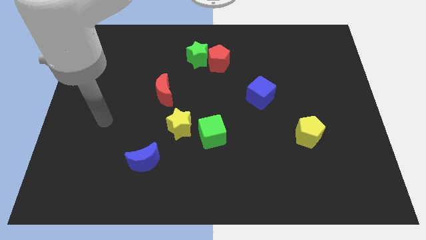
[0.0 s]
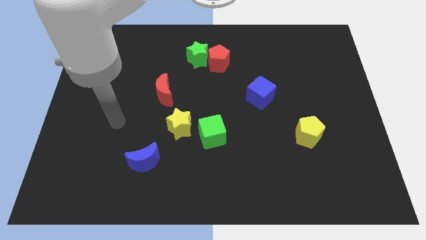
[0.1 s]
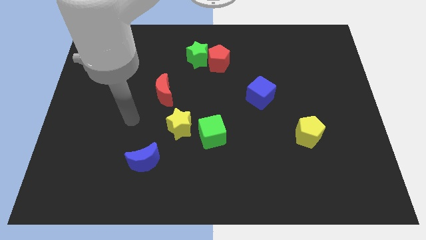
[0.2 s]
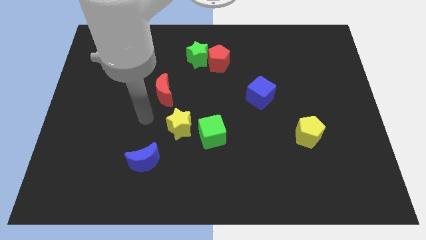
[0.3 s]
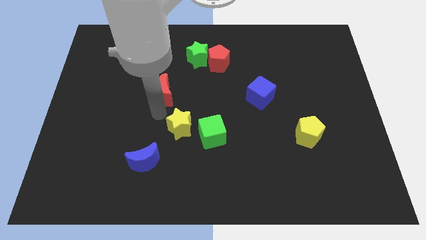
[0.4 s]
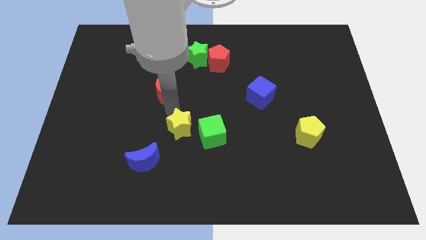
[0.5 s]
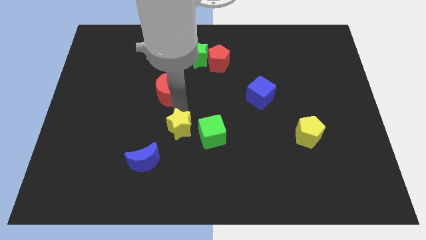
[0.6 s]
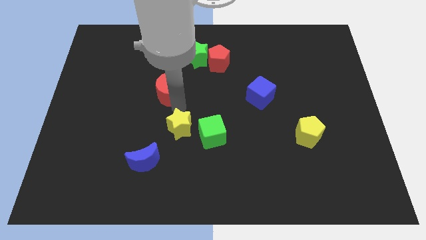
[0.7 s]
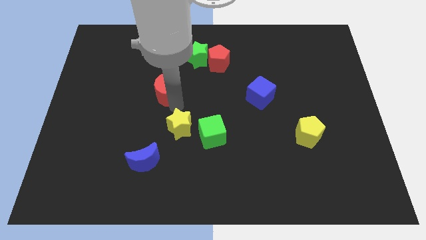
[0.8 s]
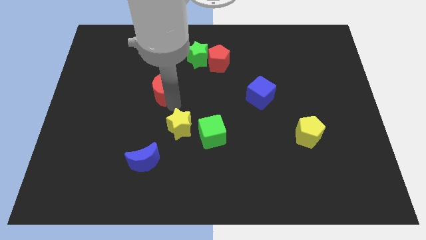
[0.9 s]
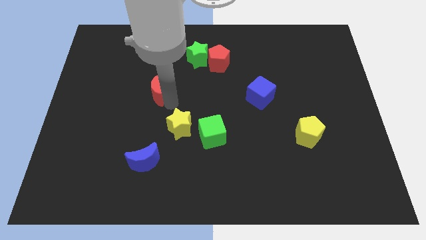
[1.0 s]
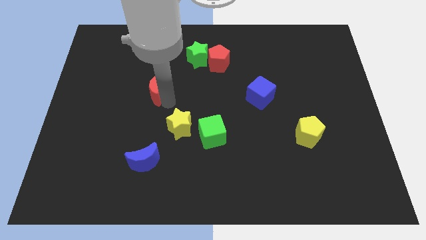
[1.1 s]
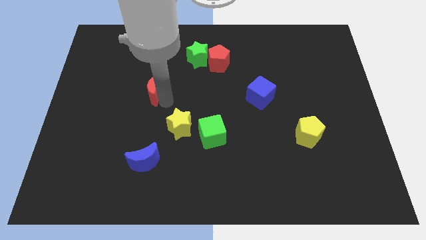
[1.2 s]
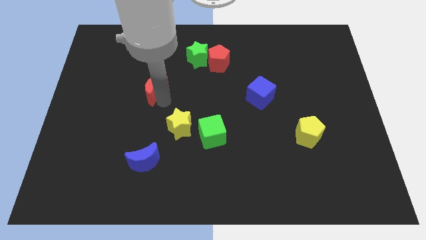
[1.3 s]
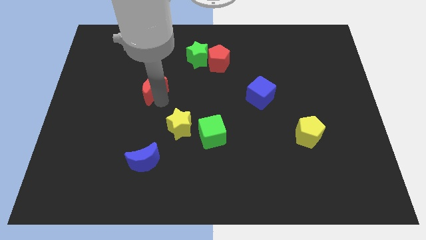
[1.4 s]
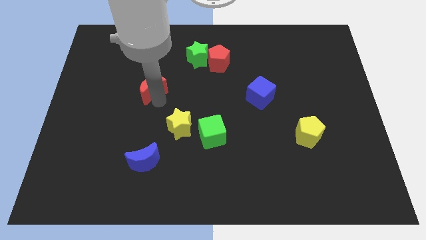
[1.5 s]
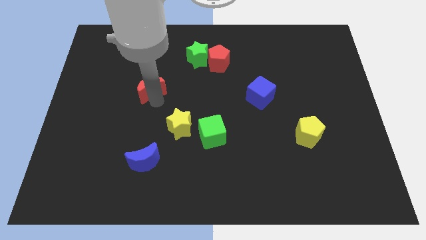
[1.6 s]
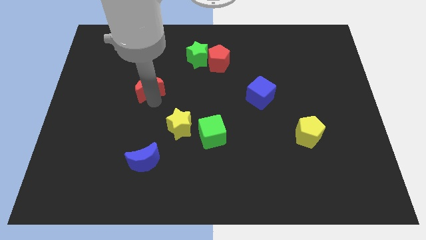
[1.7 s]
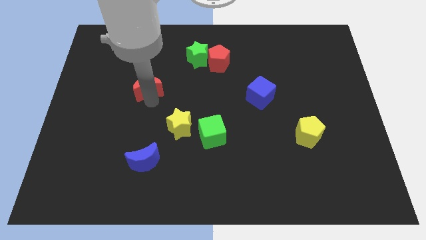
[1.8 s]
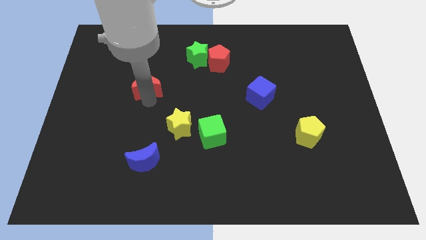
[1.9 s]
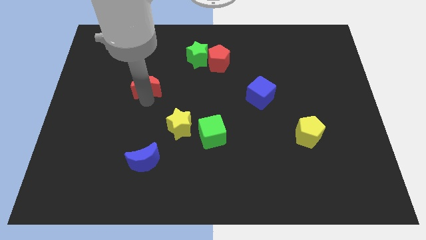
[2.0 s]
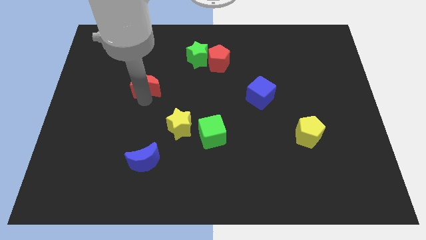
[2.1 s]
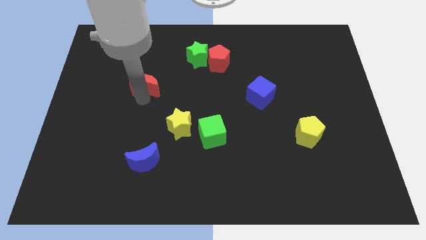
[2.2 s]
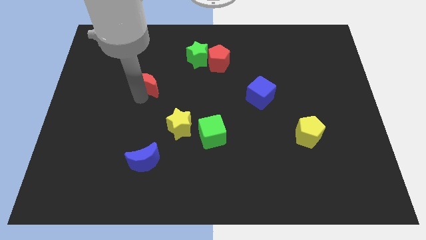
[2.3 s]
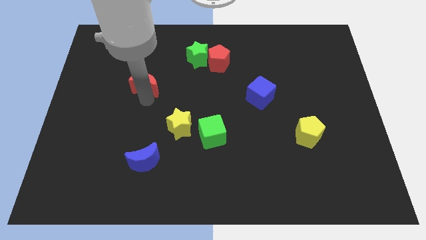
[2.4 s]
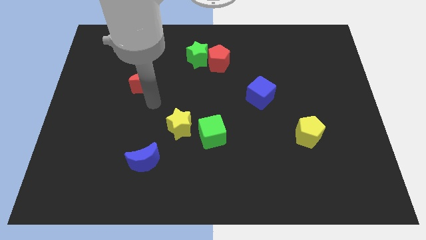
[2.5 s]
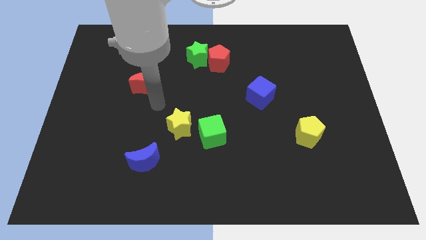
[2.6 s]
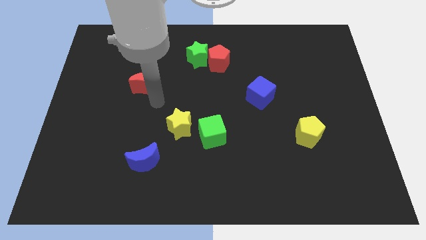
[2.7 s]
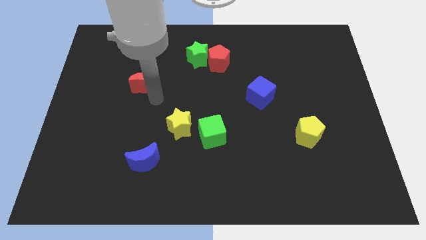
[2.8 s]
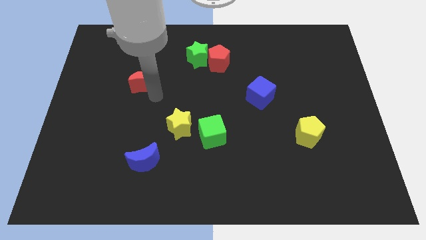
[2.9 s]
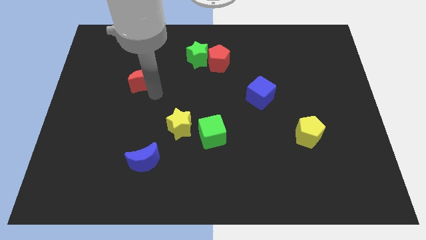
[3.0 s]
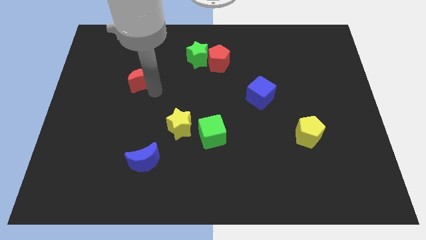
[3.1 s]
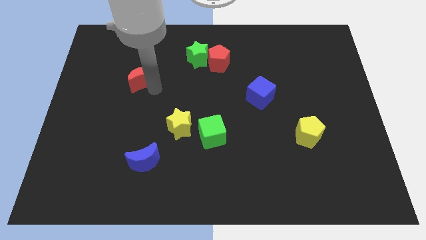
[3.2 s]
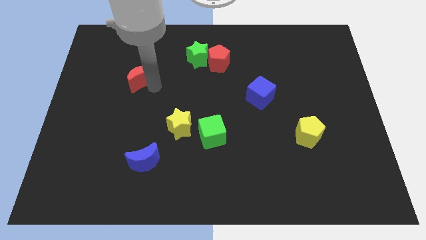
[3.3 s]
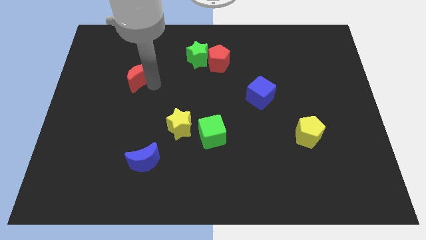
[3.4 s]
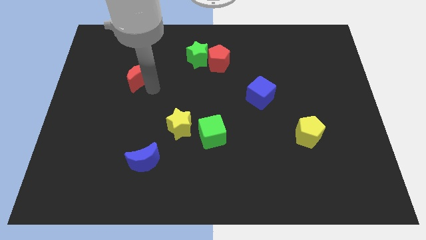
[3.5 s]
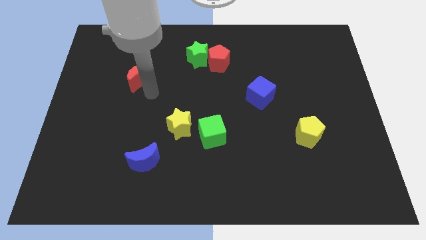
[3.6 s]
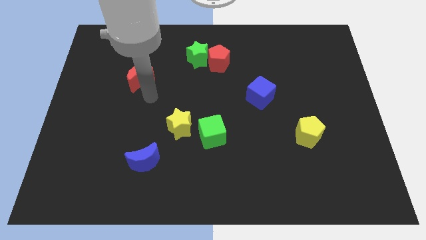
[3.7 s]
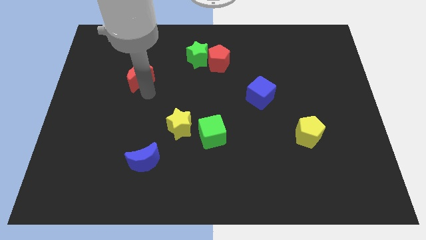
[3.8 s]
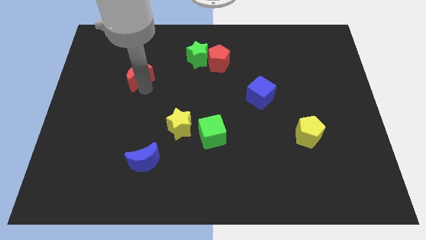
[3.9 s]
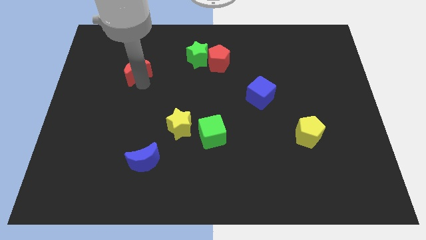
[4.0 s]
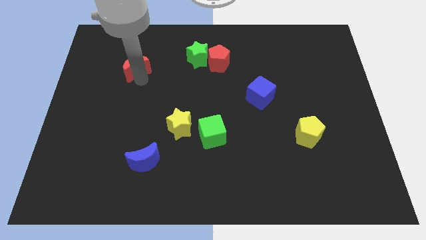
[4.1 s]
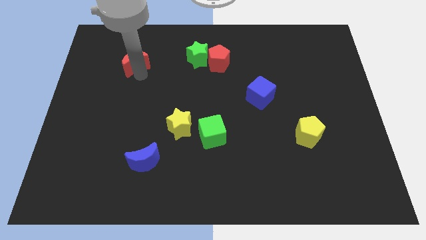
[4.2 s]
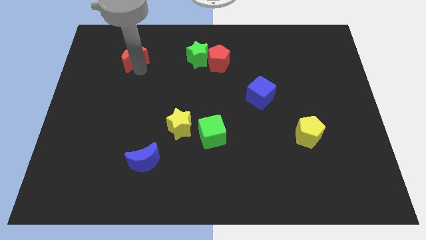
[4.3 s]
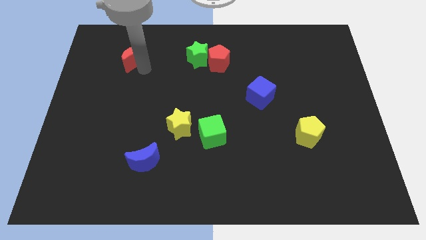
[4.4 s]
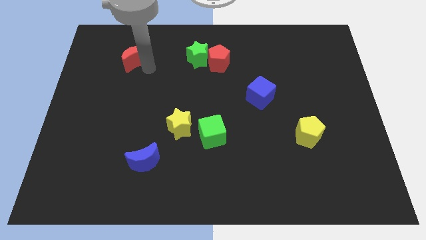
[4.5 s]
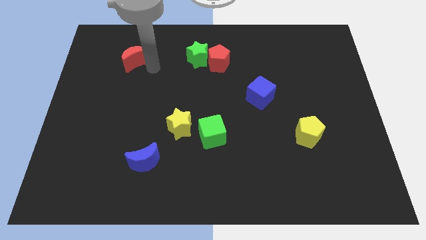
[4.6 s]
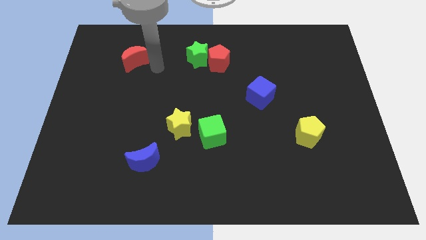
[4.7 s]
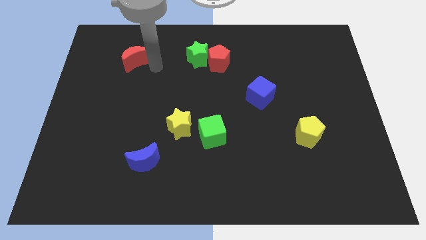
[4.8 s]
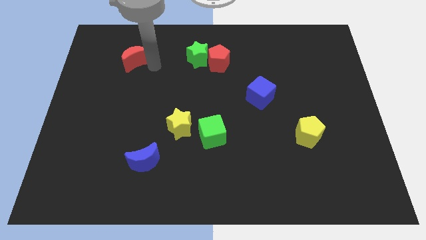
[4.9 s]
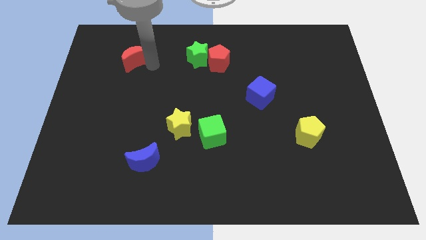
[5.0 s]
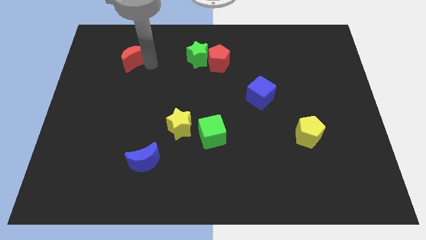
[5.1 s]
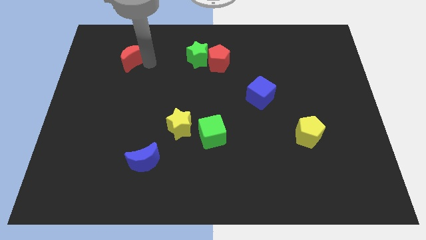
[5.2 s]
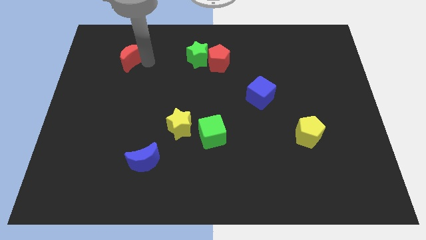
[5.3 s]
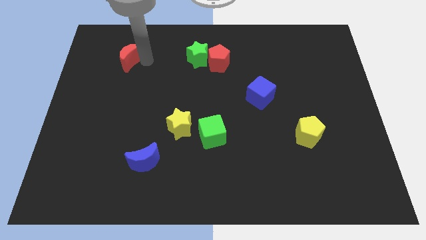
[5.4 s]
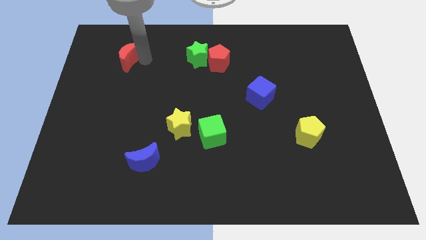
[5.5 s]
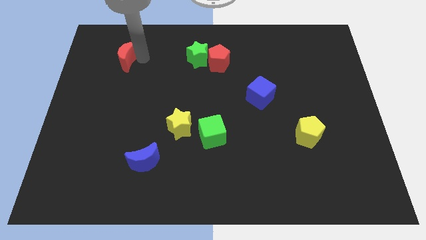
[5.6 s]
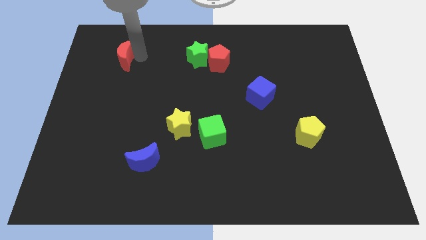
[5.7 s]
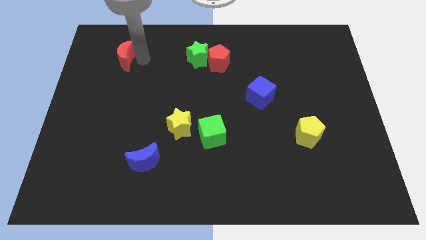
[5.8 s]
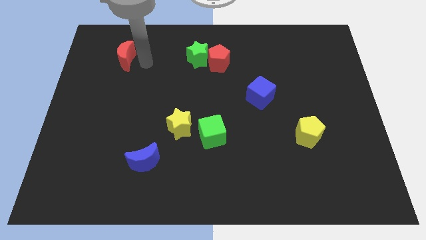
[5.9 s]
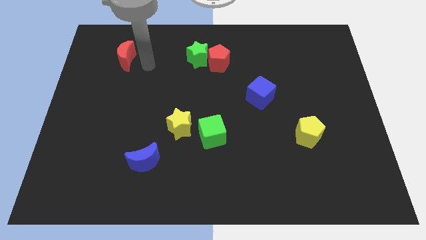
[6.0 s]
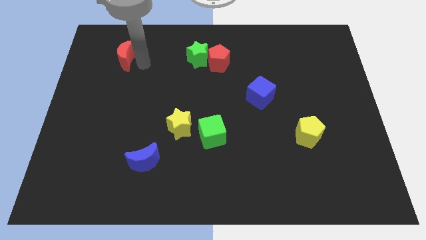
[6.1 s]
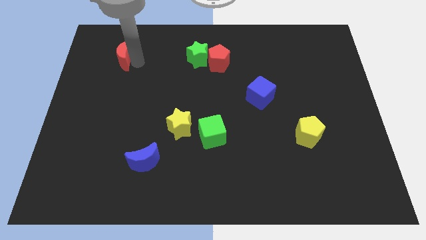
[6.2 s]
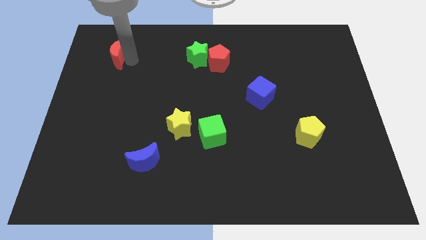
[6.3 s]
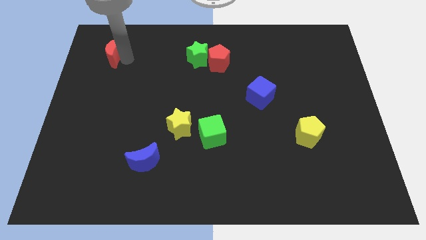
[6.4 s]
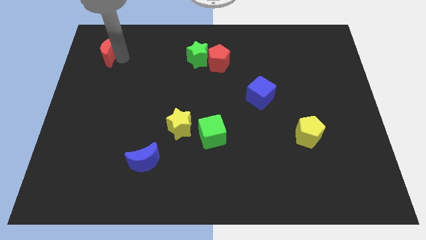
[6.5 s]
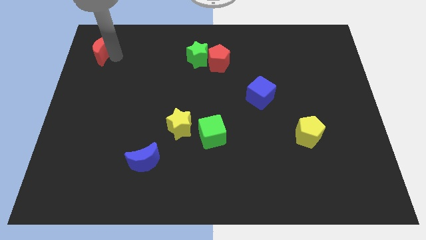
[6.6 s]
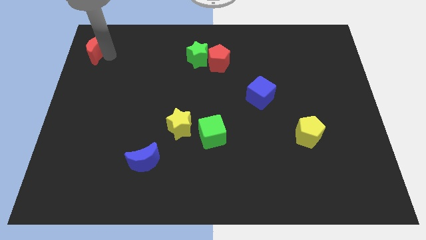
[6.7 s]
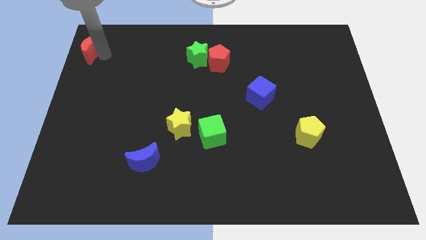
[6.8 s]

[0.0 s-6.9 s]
push the red moon to the top left
